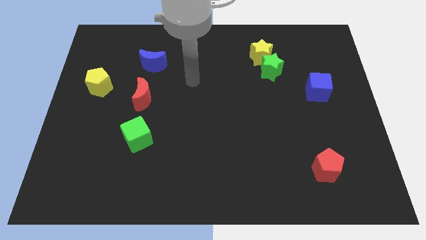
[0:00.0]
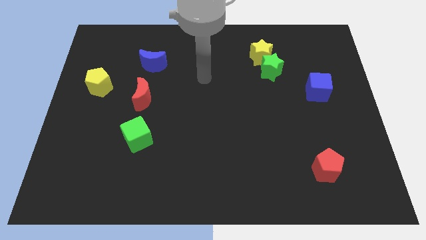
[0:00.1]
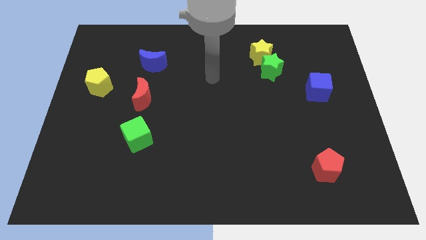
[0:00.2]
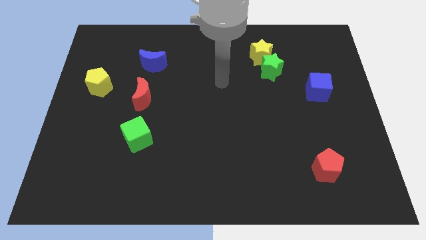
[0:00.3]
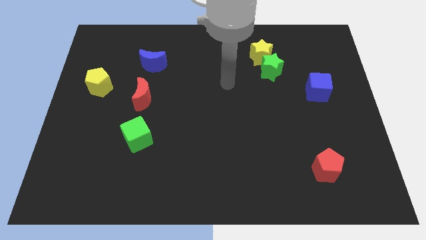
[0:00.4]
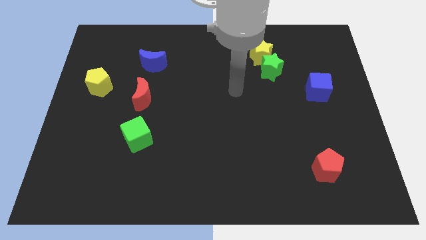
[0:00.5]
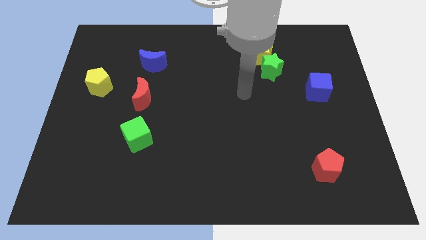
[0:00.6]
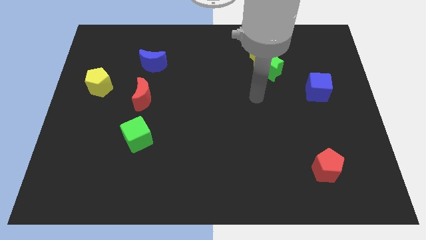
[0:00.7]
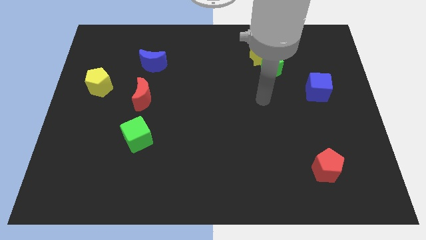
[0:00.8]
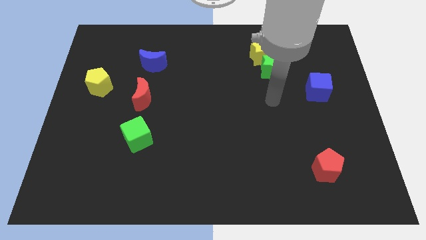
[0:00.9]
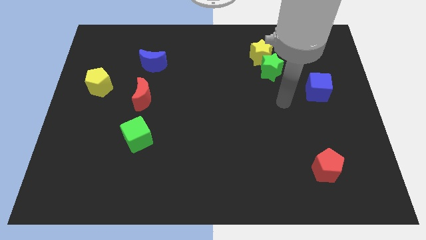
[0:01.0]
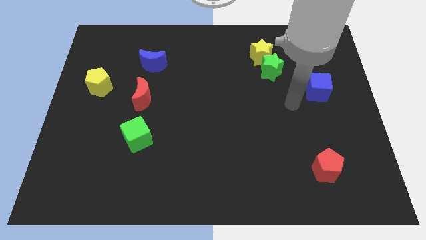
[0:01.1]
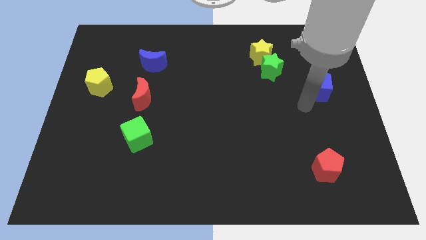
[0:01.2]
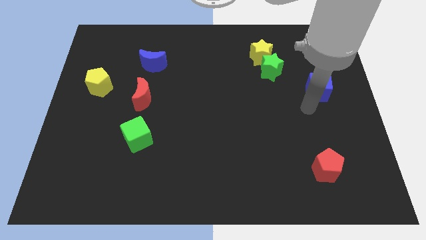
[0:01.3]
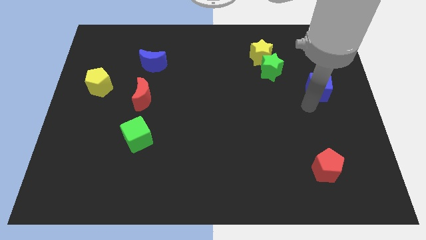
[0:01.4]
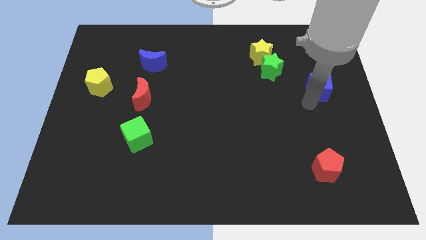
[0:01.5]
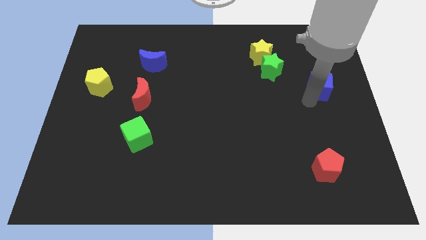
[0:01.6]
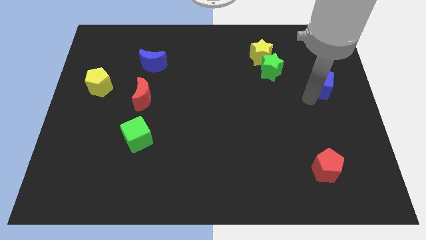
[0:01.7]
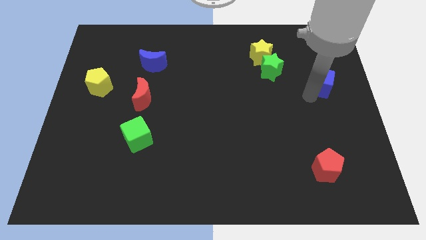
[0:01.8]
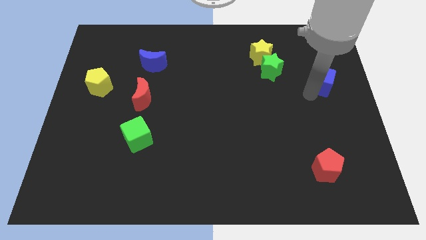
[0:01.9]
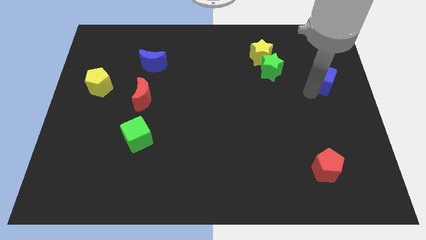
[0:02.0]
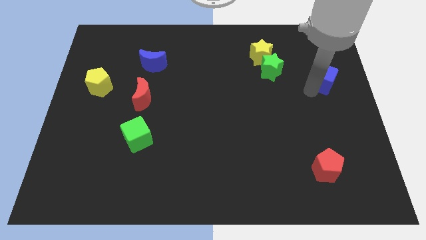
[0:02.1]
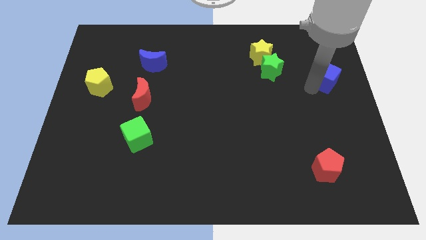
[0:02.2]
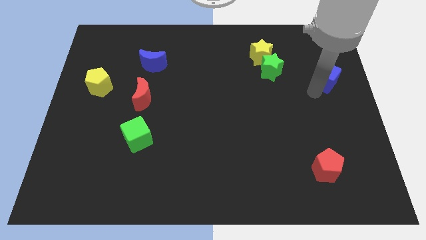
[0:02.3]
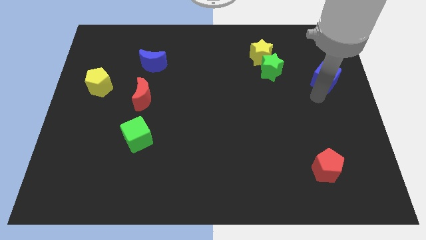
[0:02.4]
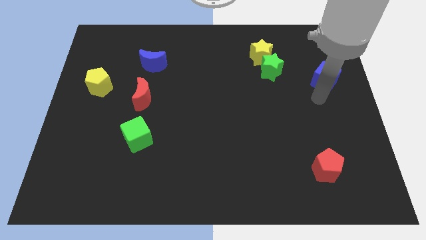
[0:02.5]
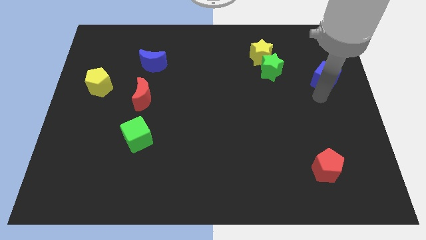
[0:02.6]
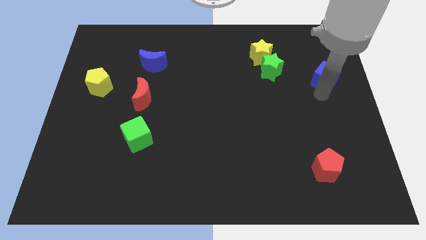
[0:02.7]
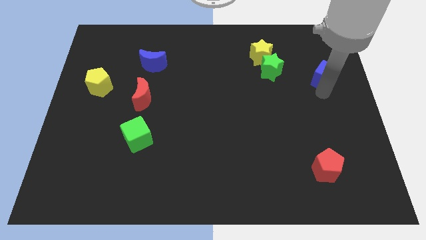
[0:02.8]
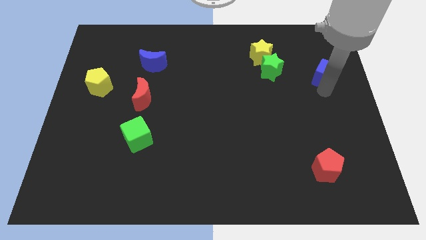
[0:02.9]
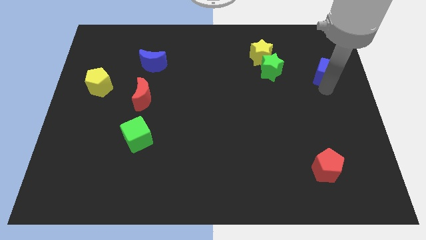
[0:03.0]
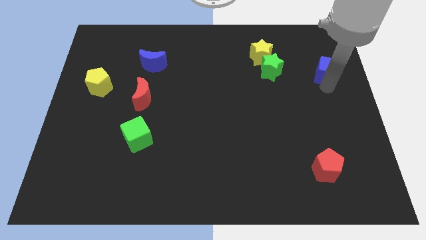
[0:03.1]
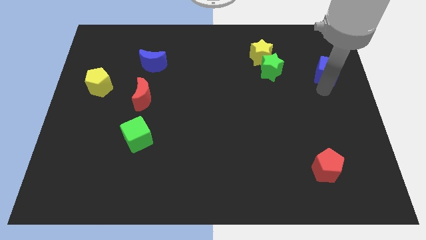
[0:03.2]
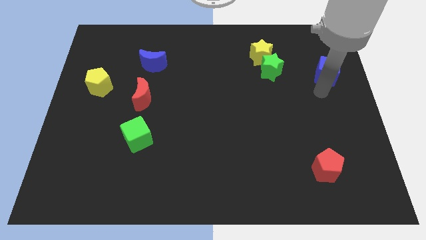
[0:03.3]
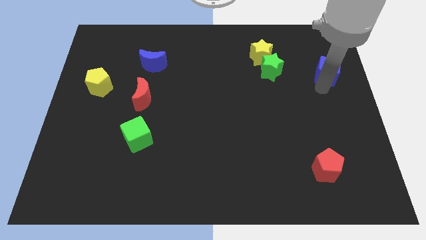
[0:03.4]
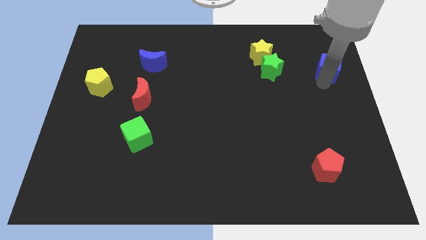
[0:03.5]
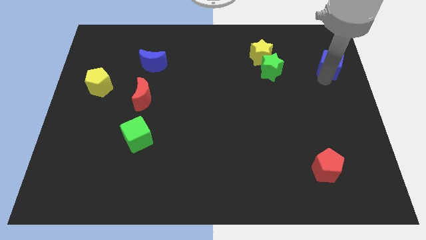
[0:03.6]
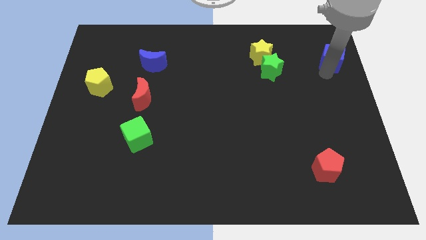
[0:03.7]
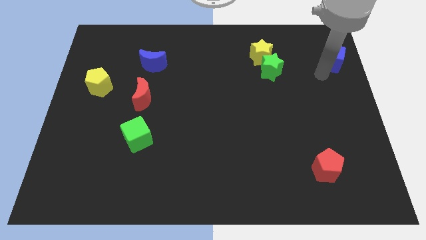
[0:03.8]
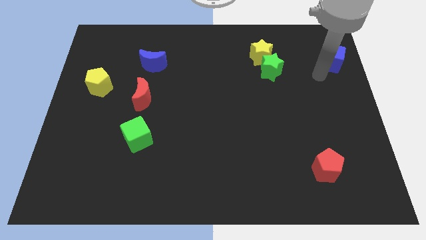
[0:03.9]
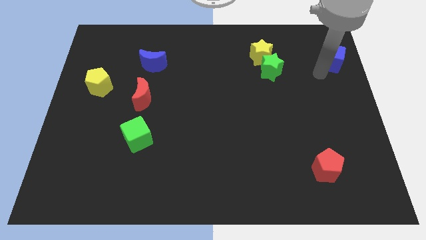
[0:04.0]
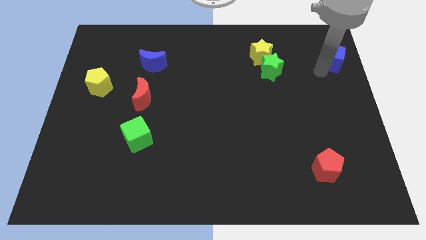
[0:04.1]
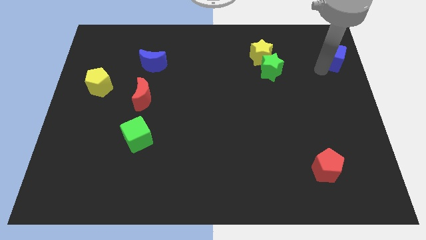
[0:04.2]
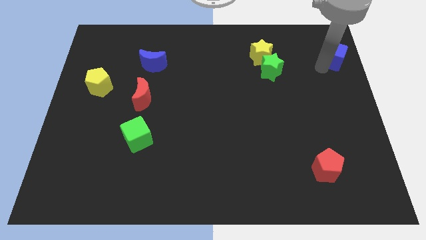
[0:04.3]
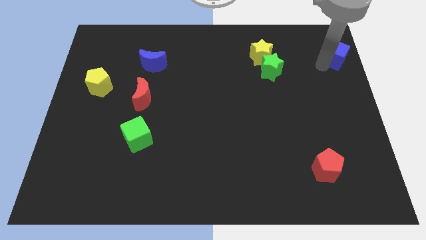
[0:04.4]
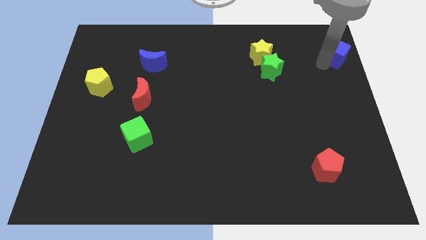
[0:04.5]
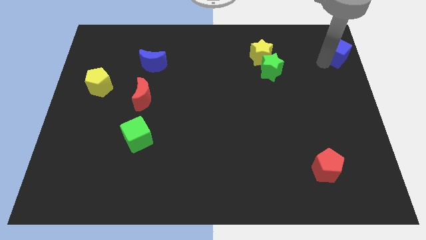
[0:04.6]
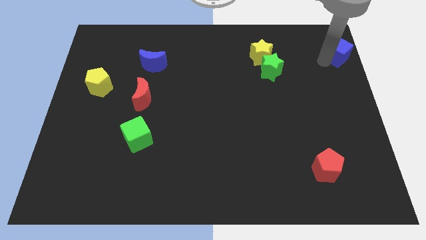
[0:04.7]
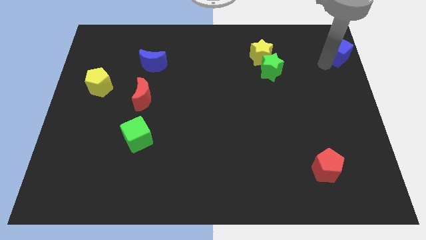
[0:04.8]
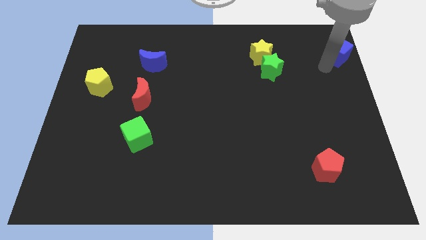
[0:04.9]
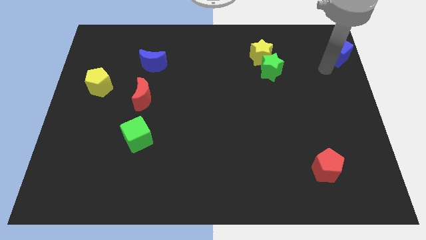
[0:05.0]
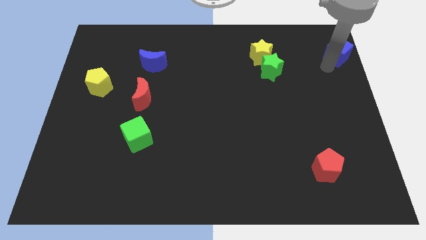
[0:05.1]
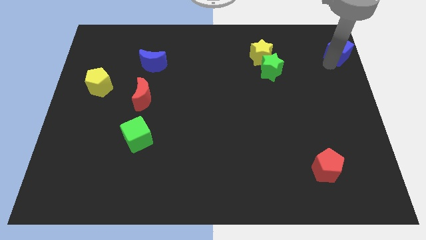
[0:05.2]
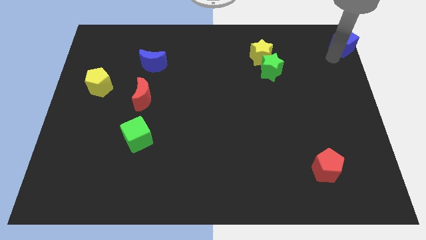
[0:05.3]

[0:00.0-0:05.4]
move the blue cube to the upper right corner

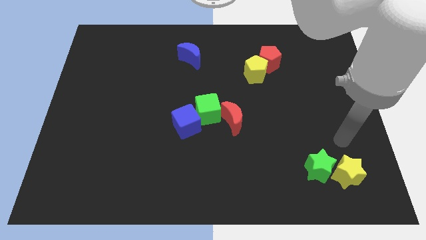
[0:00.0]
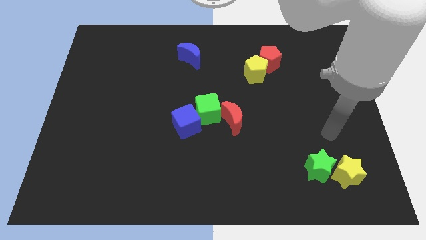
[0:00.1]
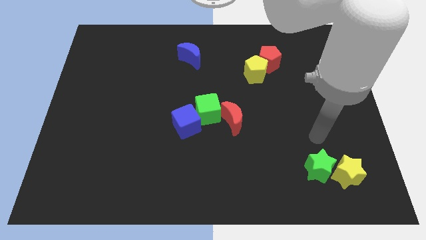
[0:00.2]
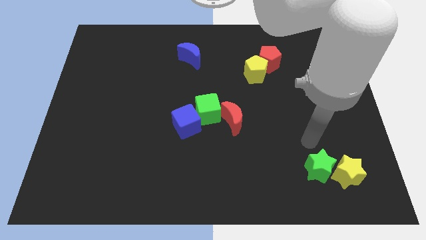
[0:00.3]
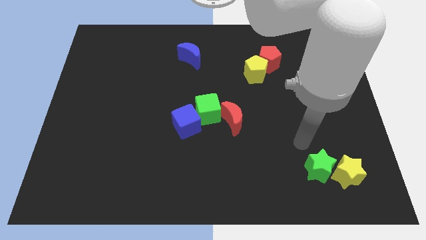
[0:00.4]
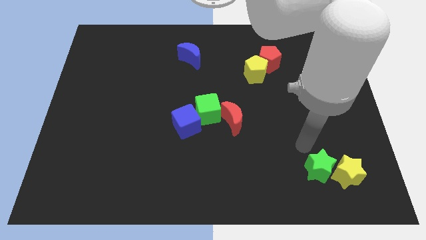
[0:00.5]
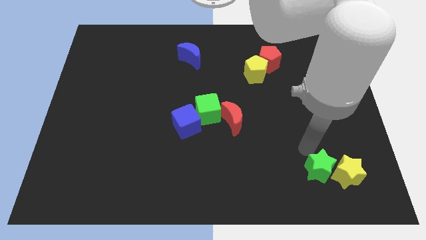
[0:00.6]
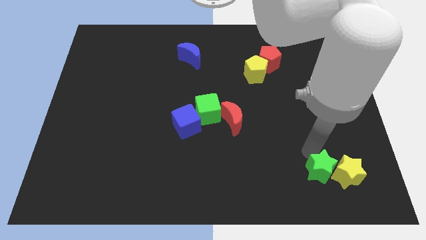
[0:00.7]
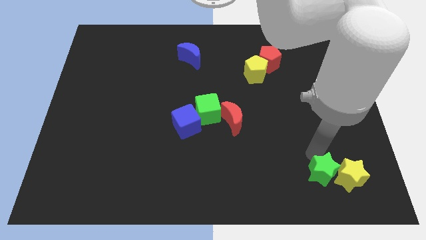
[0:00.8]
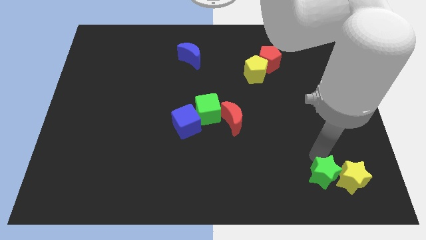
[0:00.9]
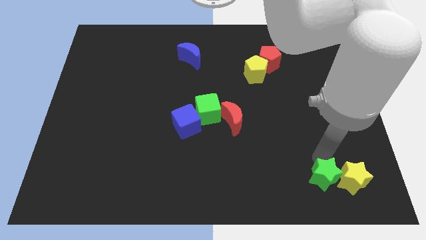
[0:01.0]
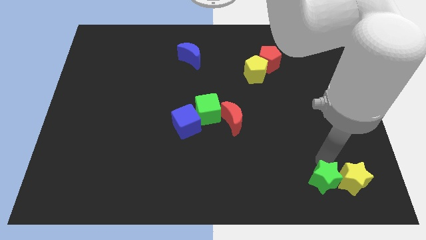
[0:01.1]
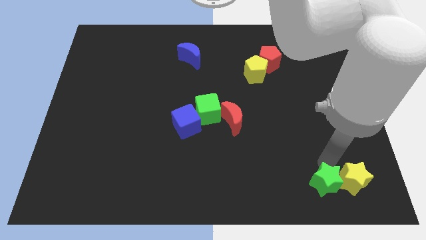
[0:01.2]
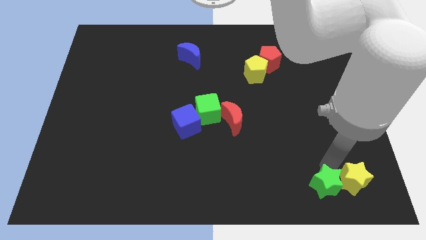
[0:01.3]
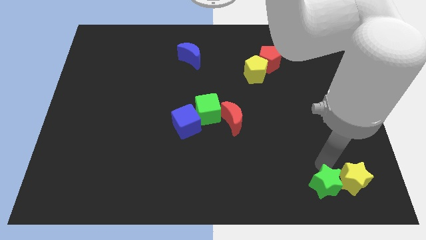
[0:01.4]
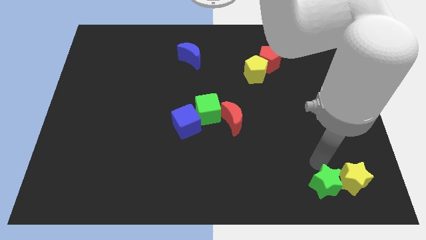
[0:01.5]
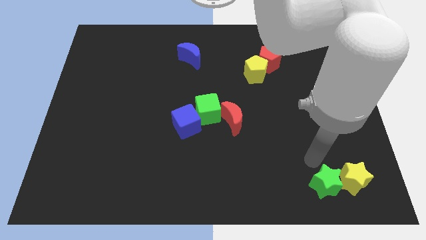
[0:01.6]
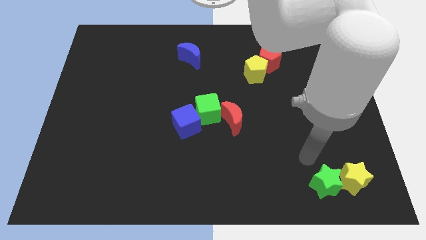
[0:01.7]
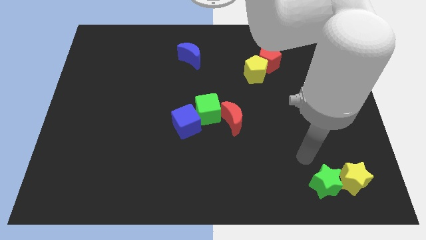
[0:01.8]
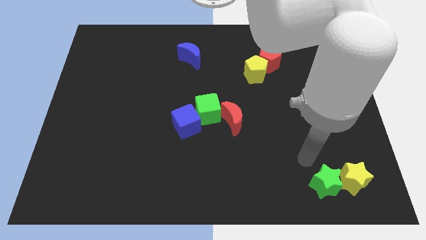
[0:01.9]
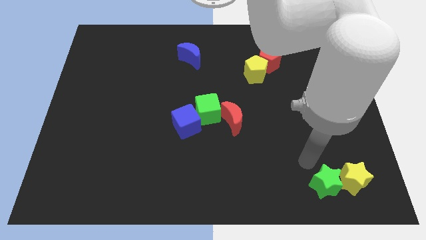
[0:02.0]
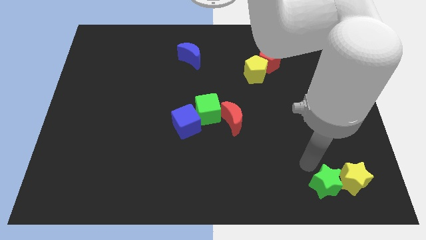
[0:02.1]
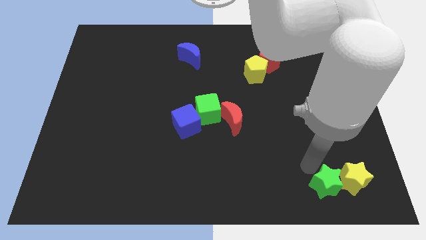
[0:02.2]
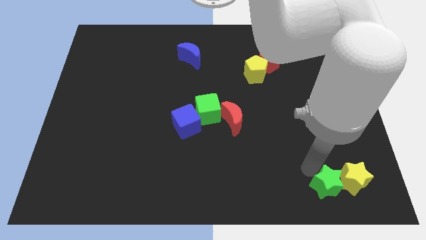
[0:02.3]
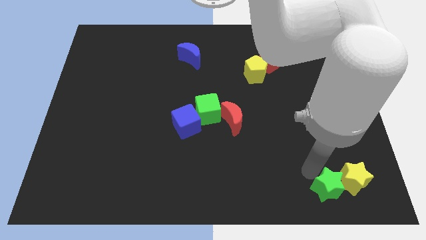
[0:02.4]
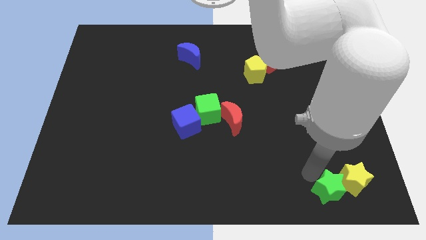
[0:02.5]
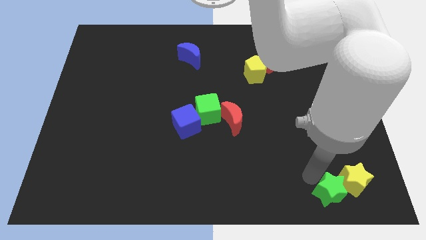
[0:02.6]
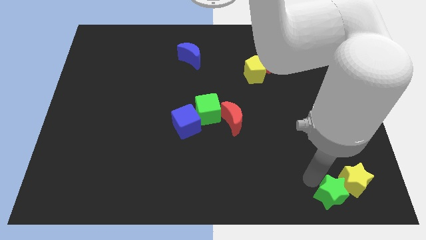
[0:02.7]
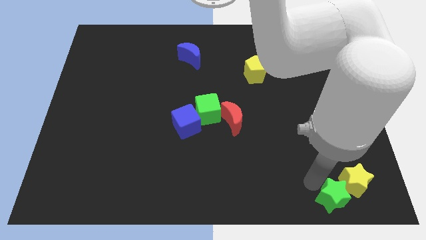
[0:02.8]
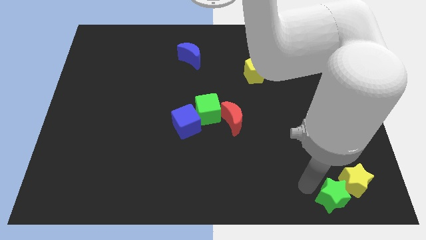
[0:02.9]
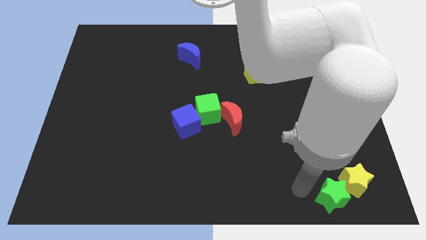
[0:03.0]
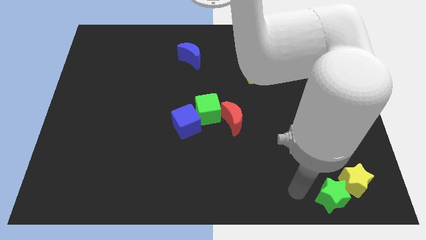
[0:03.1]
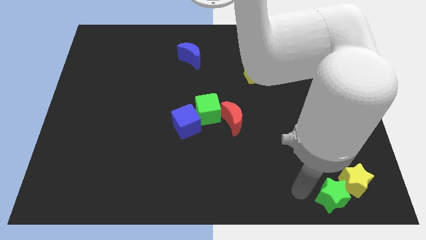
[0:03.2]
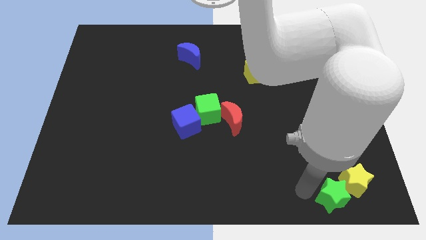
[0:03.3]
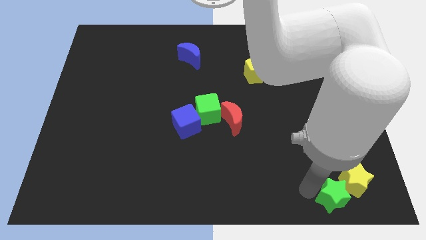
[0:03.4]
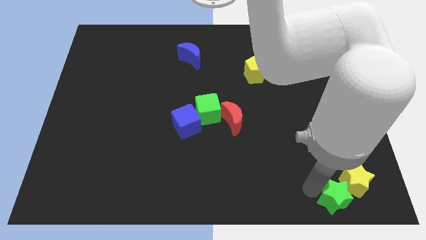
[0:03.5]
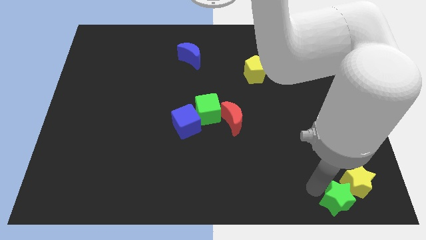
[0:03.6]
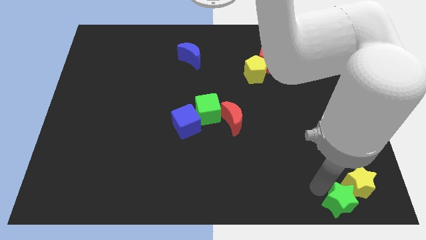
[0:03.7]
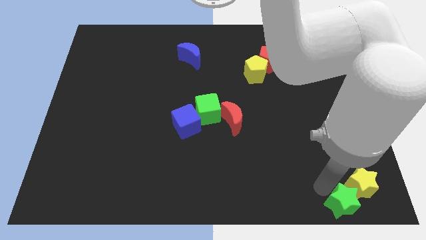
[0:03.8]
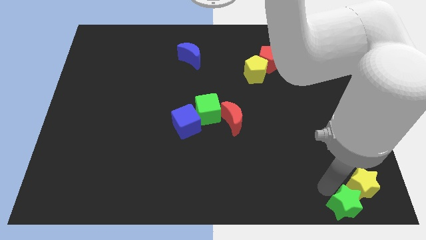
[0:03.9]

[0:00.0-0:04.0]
put the green star to the bottom right
